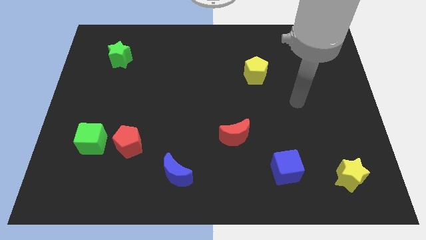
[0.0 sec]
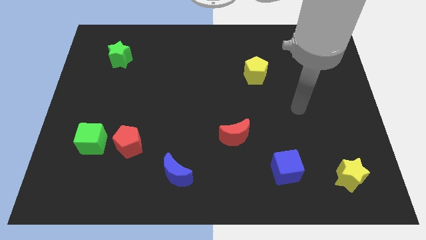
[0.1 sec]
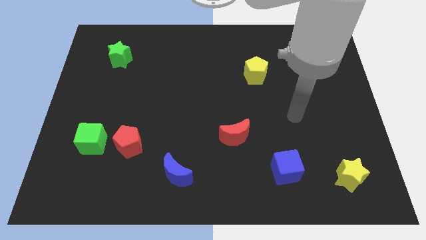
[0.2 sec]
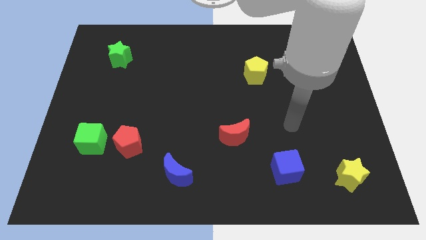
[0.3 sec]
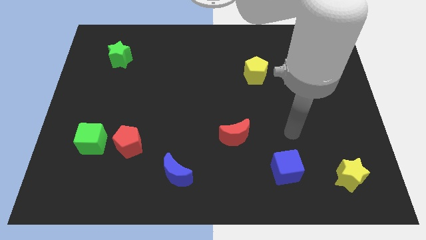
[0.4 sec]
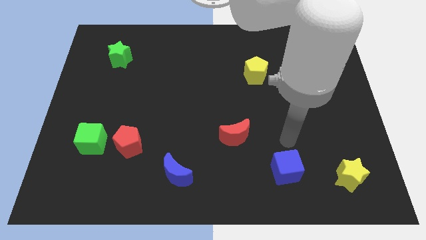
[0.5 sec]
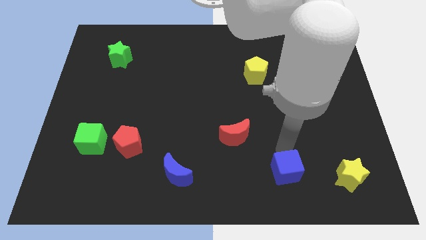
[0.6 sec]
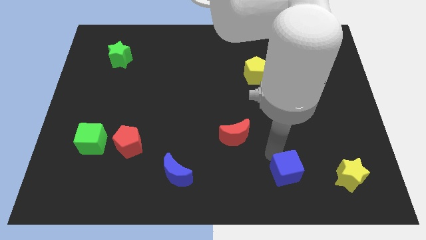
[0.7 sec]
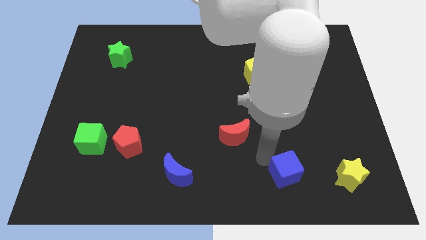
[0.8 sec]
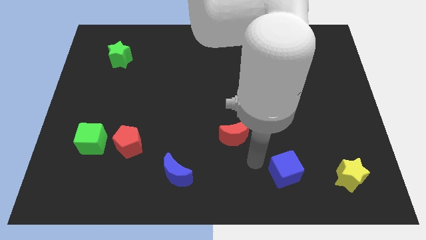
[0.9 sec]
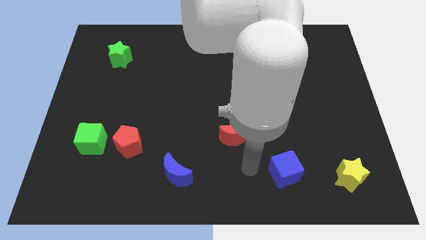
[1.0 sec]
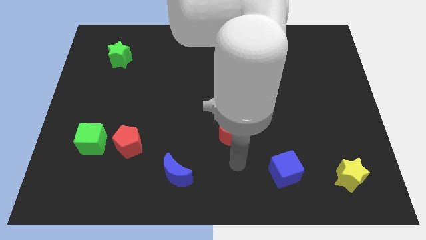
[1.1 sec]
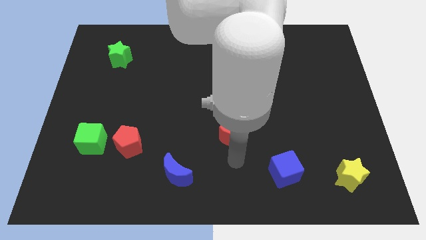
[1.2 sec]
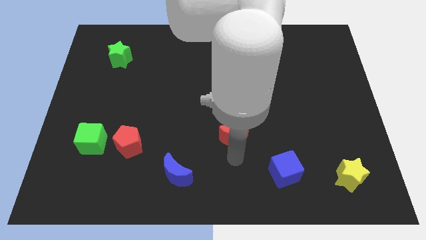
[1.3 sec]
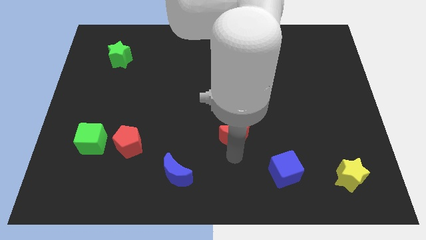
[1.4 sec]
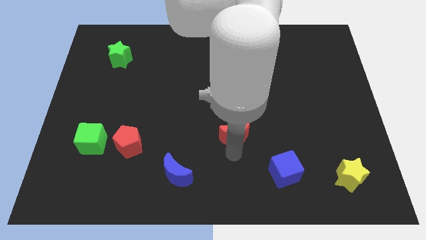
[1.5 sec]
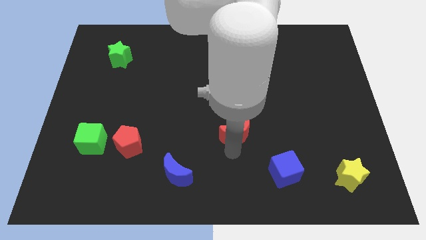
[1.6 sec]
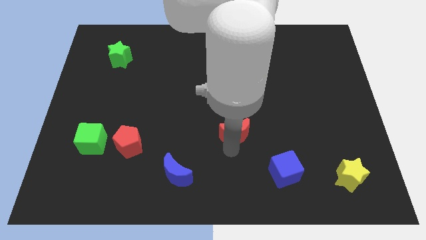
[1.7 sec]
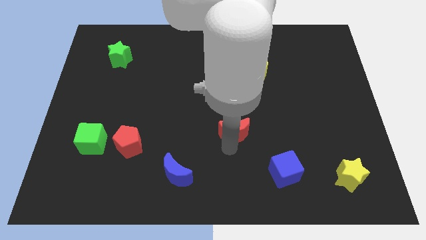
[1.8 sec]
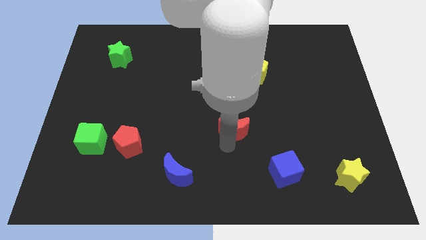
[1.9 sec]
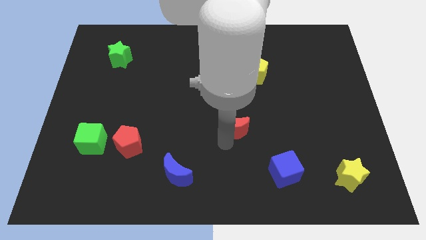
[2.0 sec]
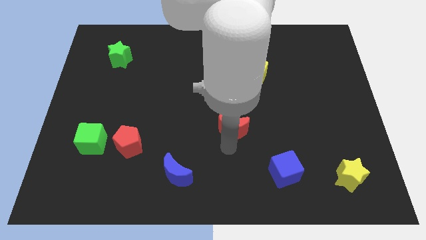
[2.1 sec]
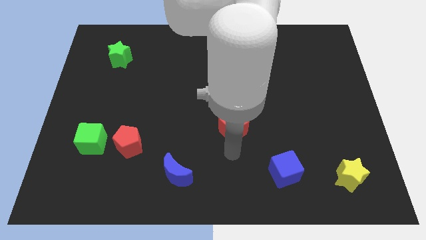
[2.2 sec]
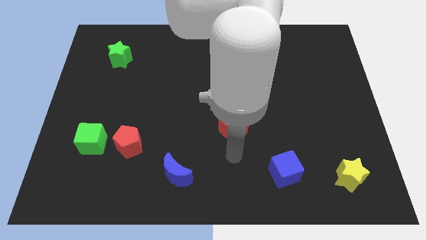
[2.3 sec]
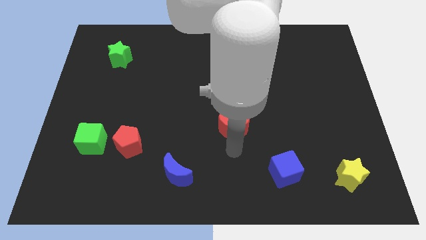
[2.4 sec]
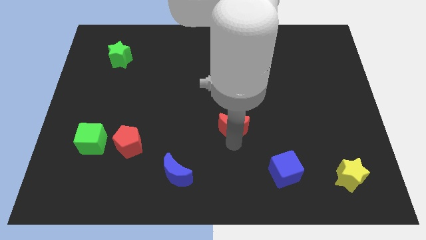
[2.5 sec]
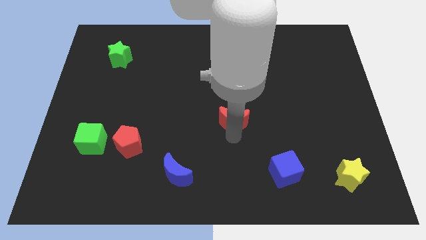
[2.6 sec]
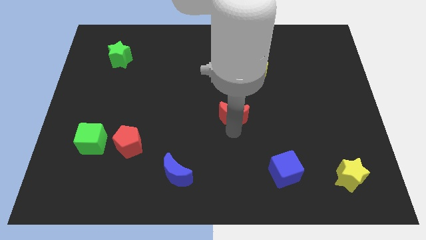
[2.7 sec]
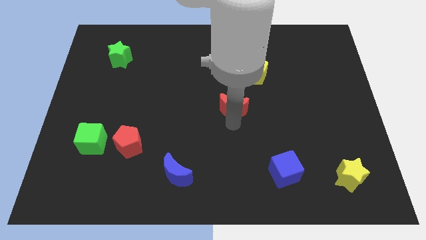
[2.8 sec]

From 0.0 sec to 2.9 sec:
push the red moon up a bit

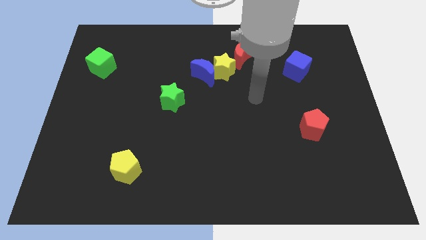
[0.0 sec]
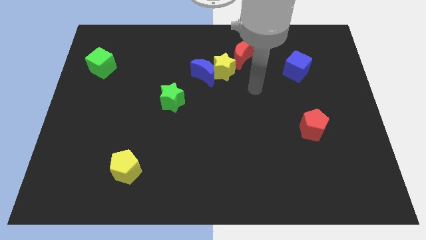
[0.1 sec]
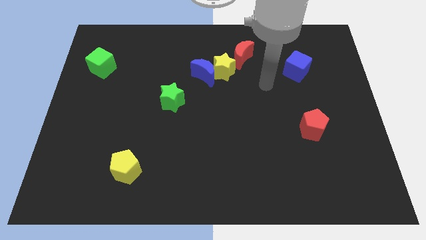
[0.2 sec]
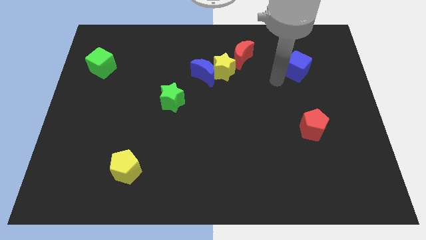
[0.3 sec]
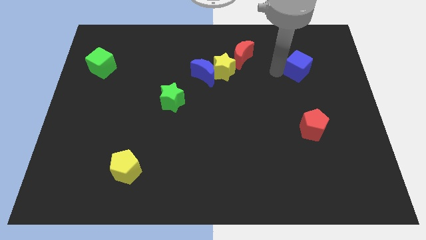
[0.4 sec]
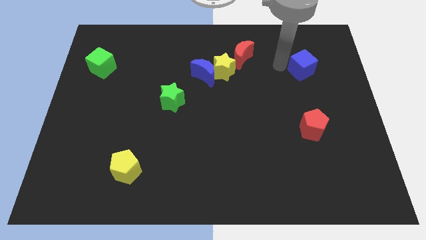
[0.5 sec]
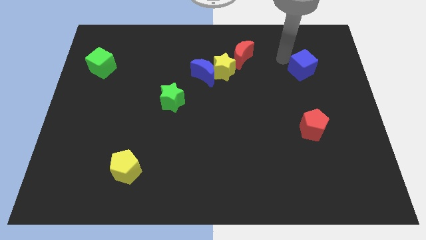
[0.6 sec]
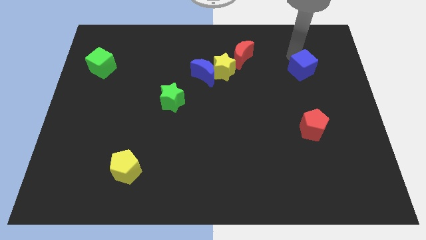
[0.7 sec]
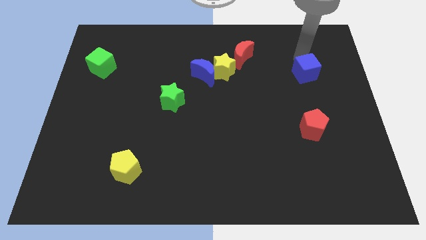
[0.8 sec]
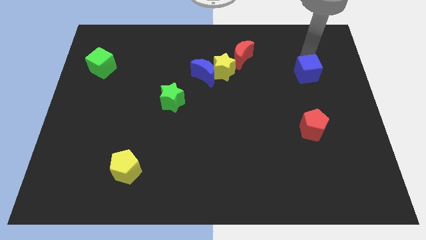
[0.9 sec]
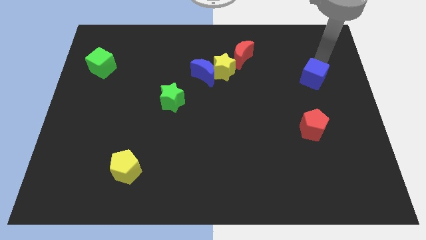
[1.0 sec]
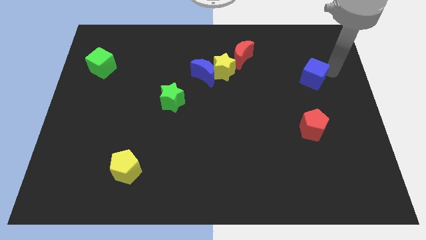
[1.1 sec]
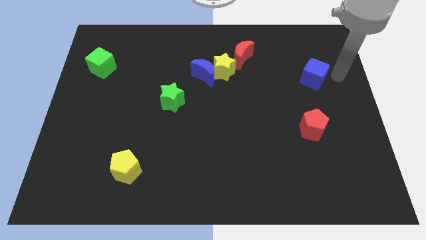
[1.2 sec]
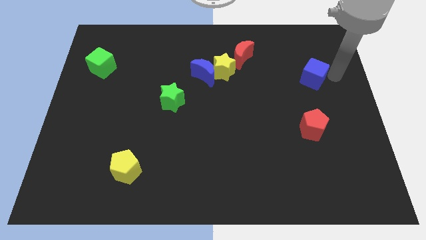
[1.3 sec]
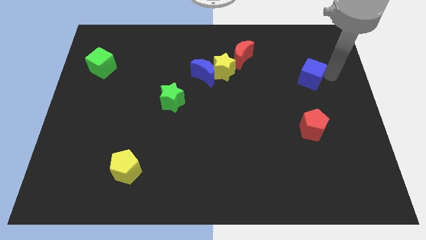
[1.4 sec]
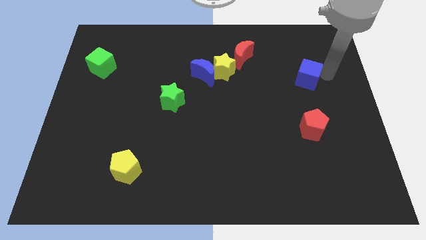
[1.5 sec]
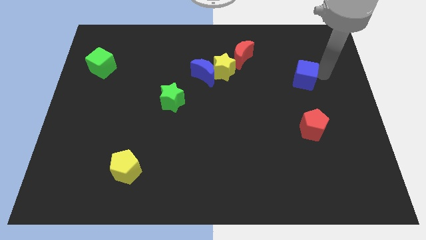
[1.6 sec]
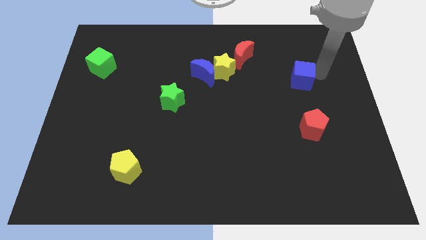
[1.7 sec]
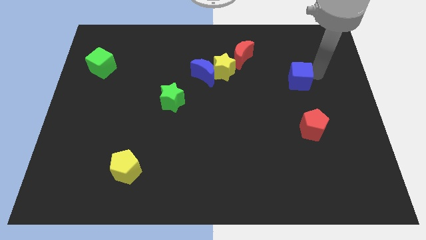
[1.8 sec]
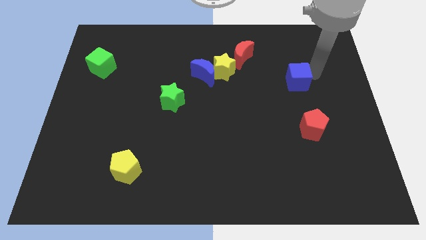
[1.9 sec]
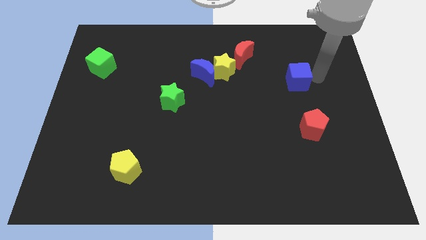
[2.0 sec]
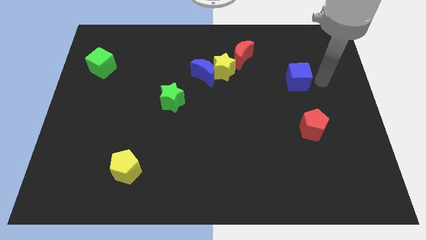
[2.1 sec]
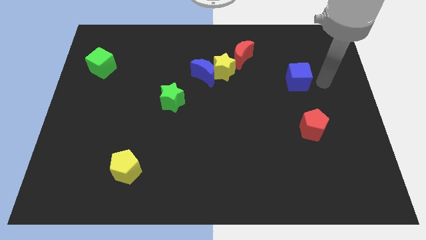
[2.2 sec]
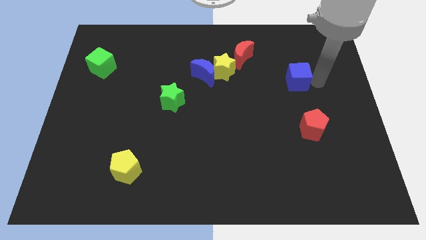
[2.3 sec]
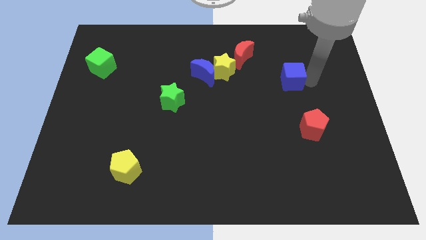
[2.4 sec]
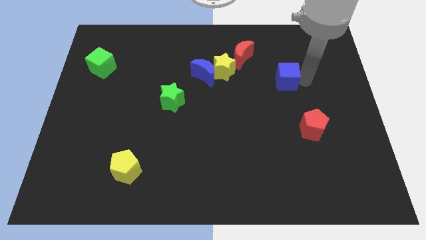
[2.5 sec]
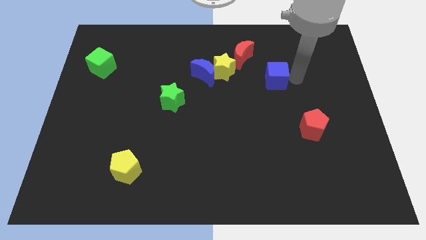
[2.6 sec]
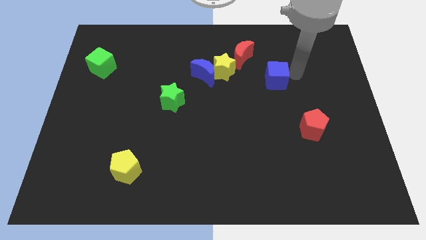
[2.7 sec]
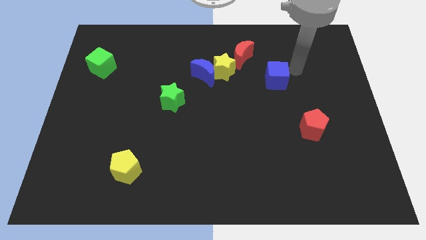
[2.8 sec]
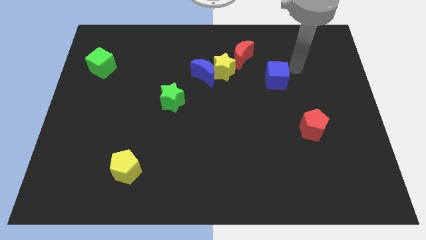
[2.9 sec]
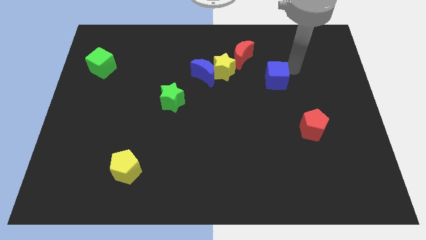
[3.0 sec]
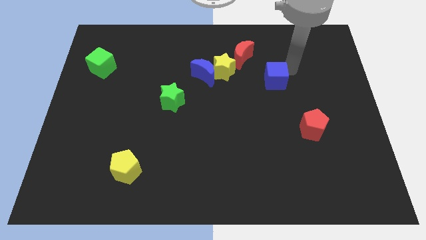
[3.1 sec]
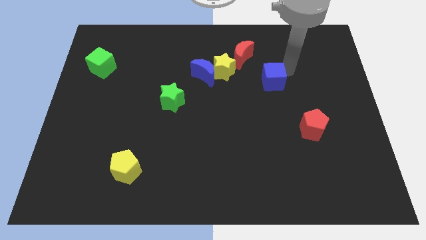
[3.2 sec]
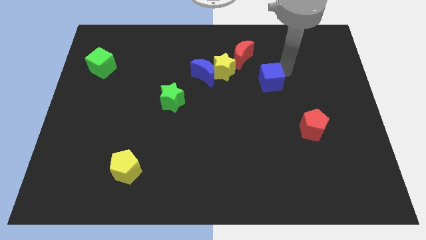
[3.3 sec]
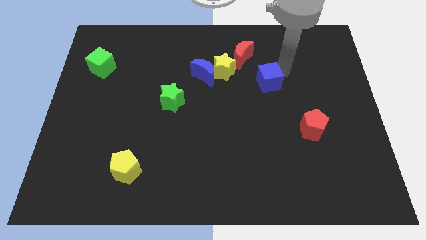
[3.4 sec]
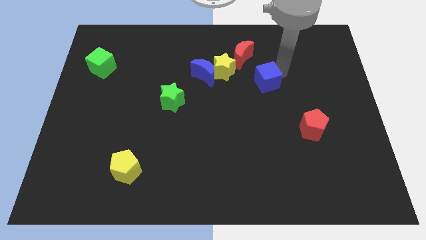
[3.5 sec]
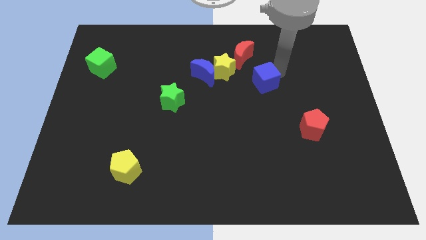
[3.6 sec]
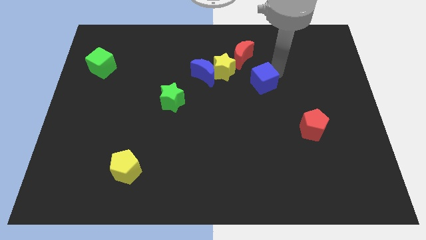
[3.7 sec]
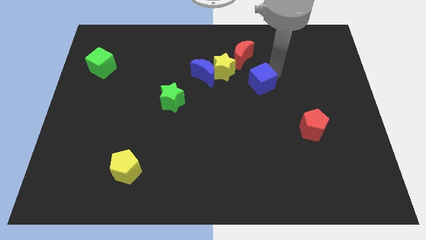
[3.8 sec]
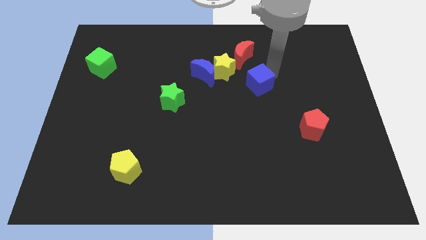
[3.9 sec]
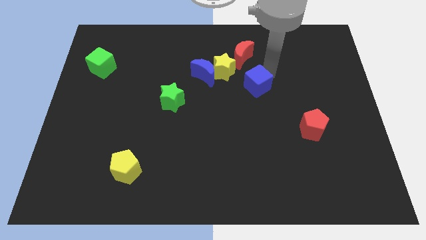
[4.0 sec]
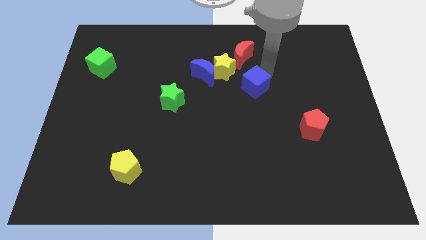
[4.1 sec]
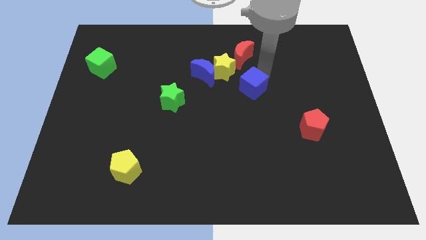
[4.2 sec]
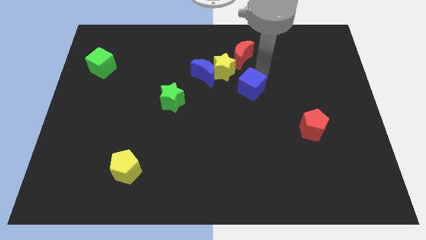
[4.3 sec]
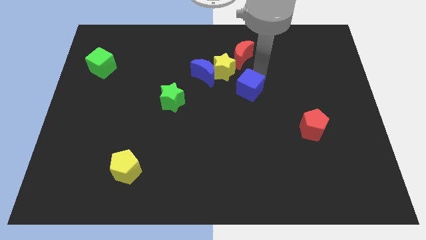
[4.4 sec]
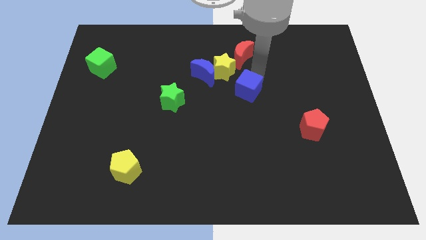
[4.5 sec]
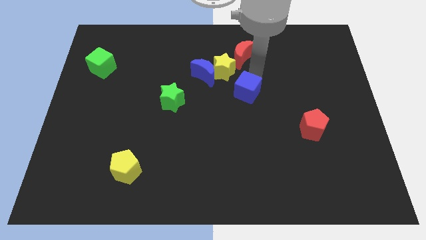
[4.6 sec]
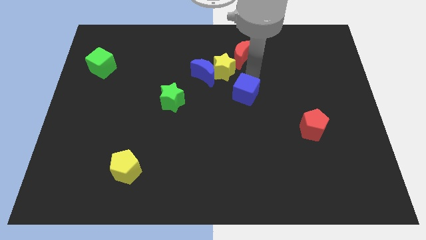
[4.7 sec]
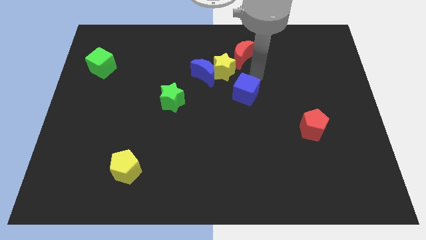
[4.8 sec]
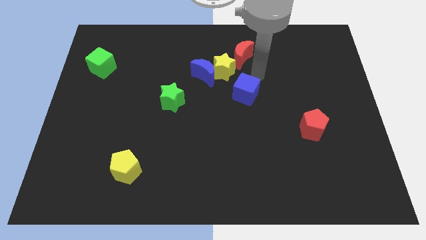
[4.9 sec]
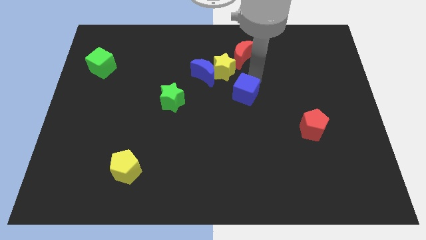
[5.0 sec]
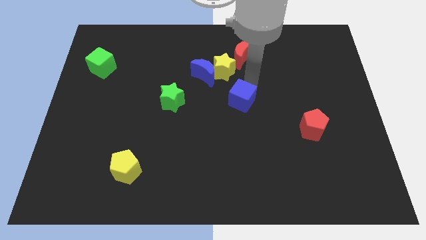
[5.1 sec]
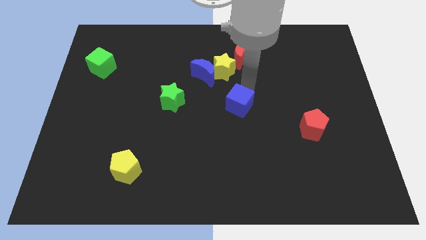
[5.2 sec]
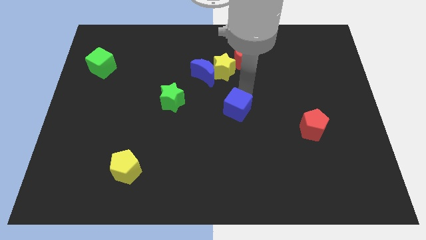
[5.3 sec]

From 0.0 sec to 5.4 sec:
push the blue cube down and to the left diagonally
